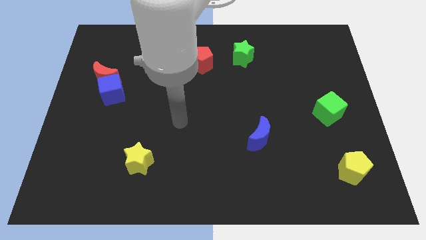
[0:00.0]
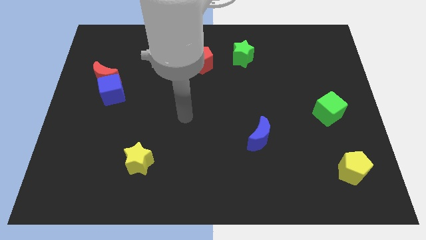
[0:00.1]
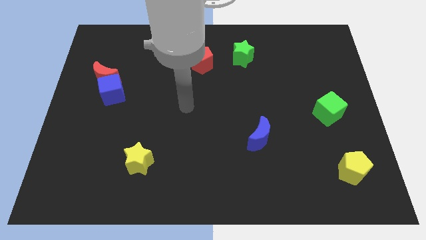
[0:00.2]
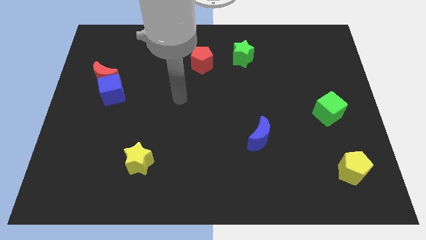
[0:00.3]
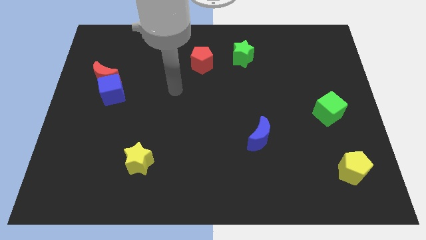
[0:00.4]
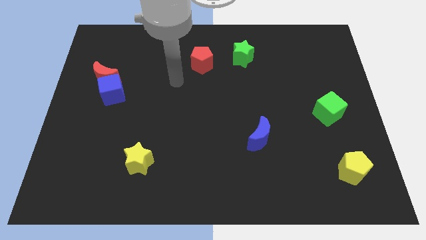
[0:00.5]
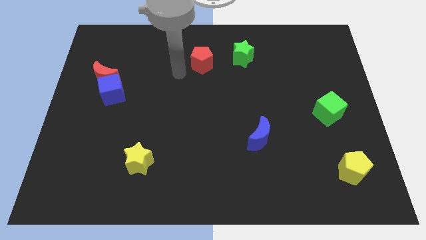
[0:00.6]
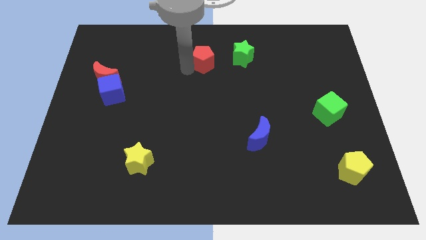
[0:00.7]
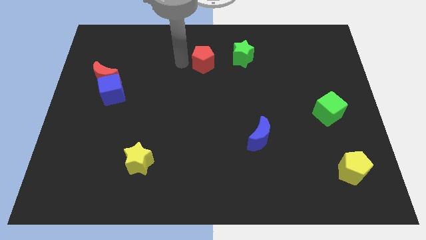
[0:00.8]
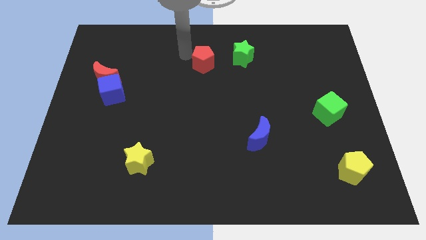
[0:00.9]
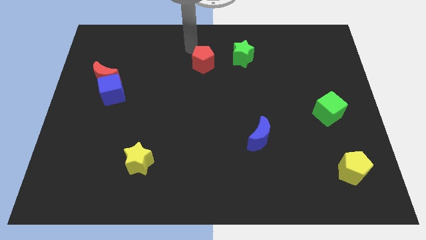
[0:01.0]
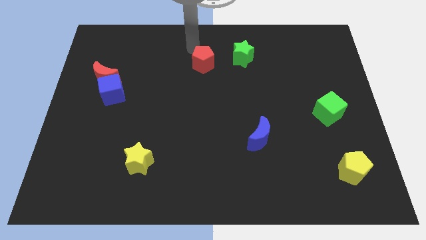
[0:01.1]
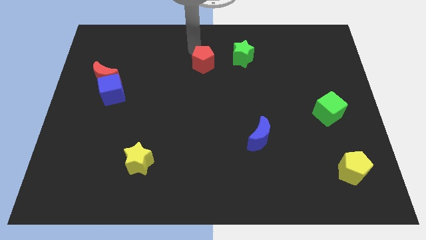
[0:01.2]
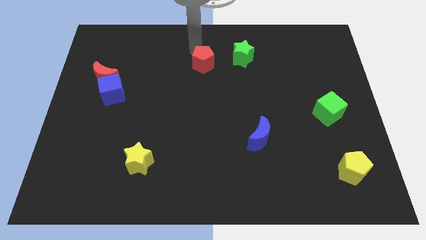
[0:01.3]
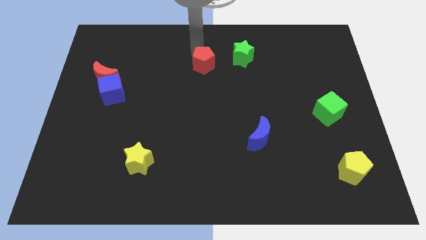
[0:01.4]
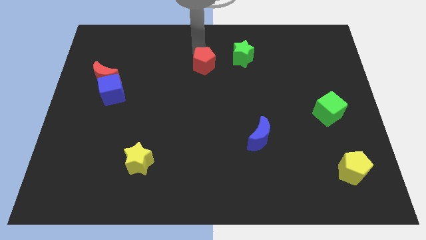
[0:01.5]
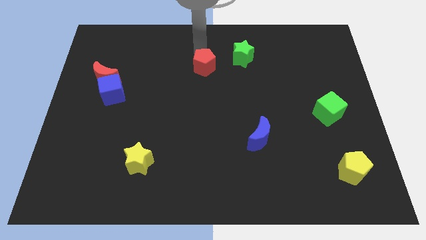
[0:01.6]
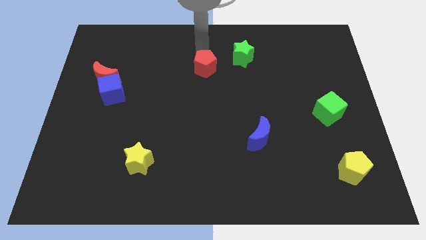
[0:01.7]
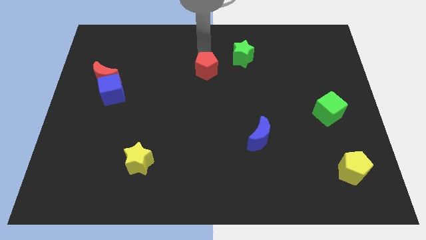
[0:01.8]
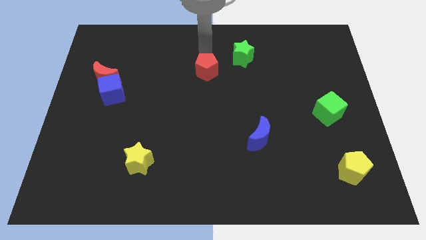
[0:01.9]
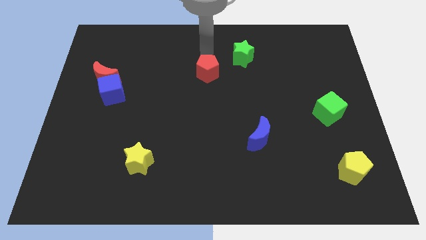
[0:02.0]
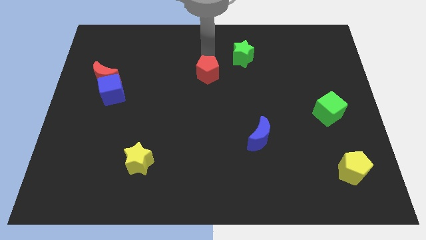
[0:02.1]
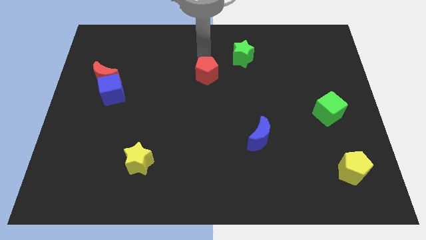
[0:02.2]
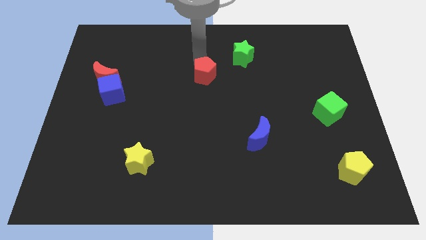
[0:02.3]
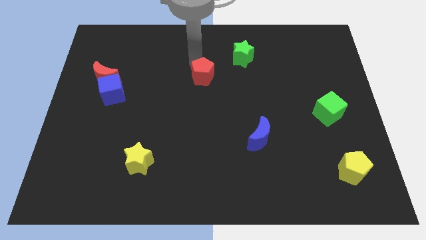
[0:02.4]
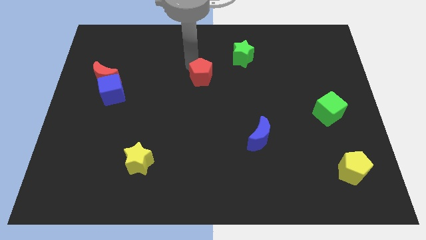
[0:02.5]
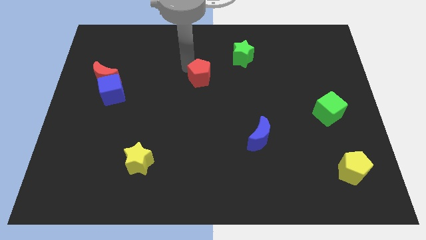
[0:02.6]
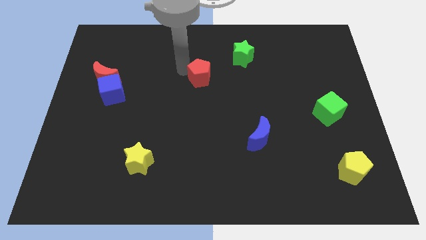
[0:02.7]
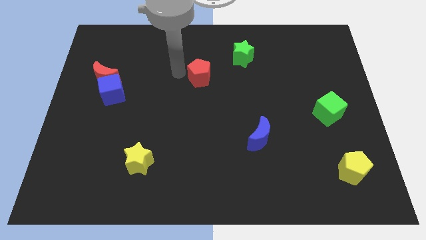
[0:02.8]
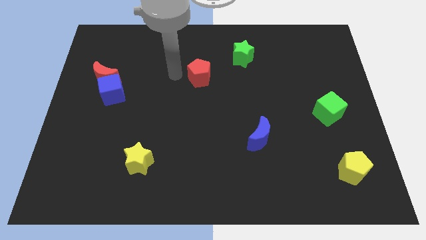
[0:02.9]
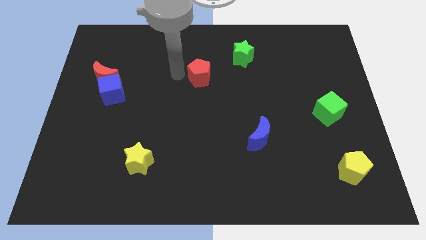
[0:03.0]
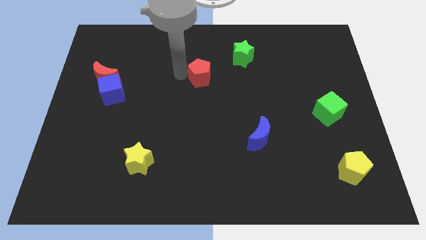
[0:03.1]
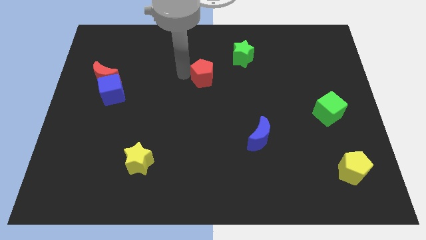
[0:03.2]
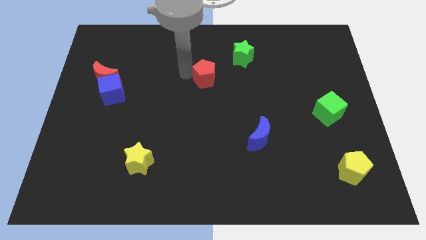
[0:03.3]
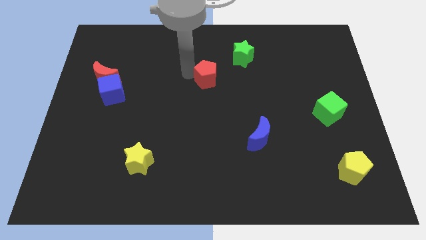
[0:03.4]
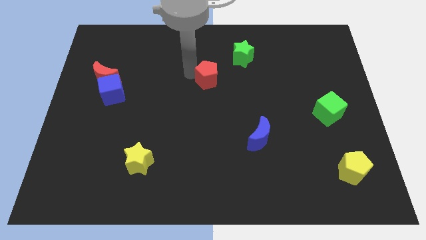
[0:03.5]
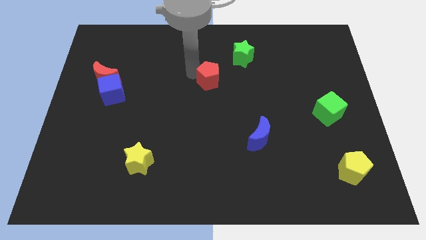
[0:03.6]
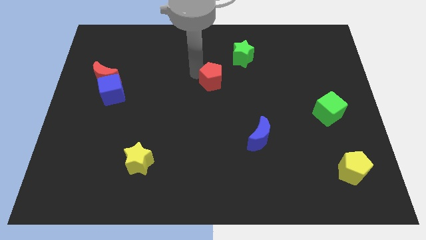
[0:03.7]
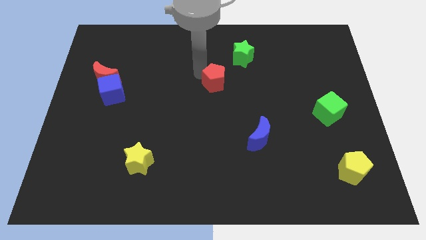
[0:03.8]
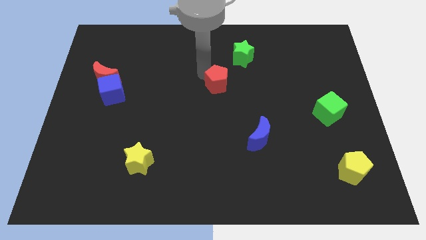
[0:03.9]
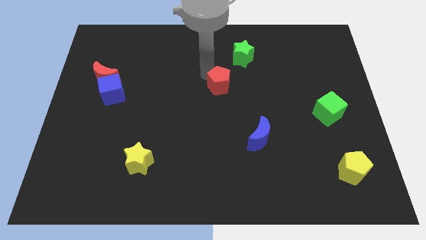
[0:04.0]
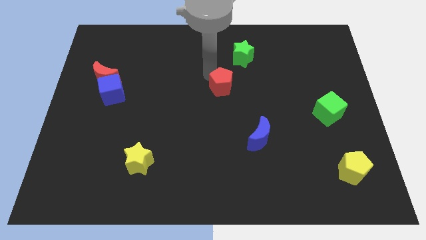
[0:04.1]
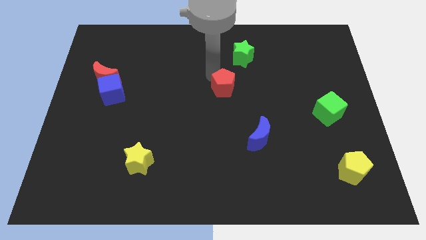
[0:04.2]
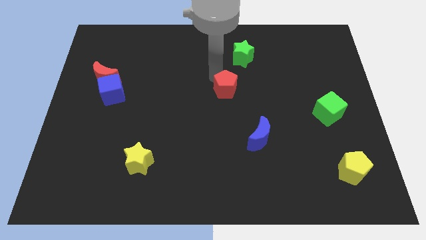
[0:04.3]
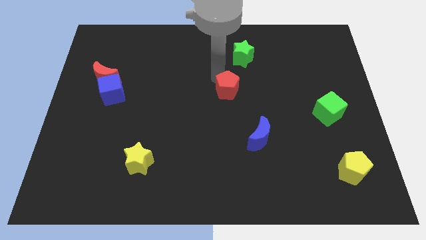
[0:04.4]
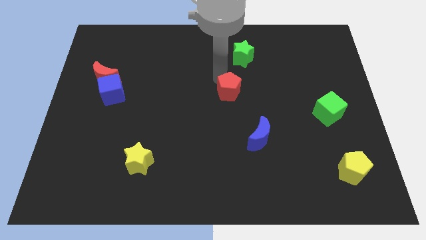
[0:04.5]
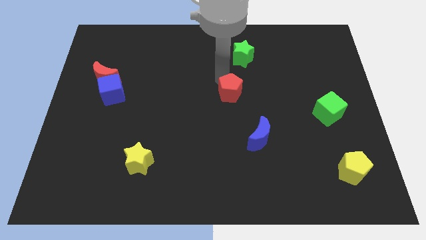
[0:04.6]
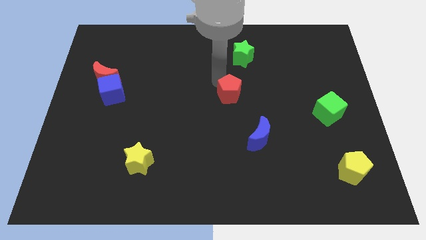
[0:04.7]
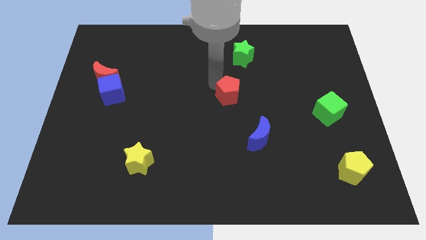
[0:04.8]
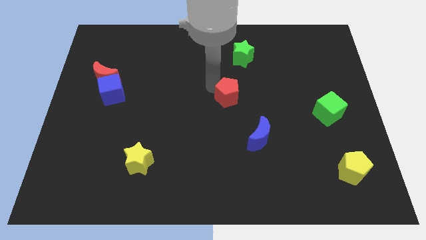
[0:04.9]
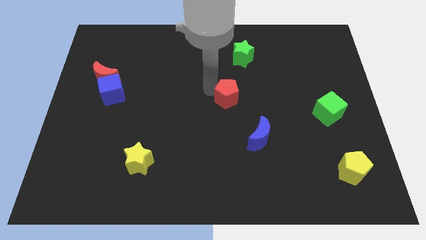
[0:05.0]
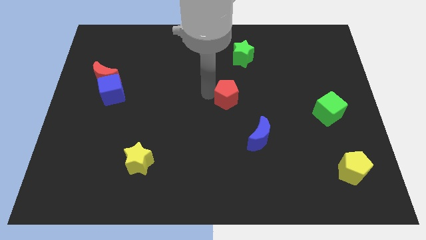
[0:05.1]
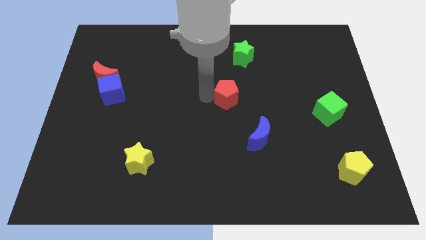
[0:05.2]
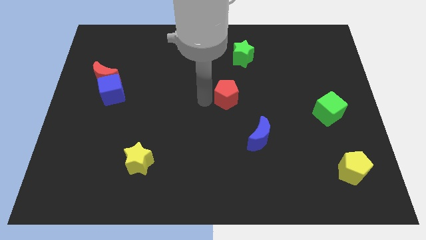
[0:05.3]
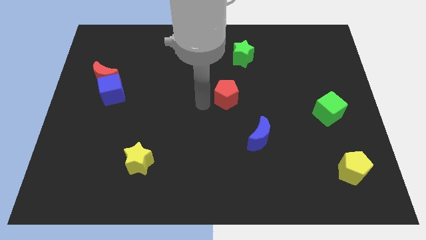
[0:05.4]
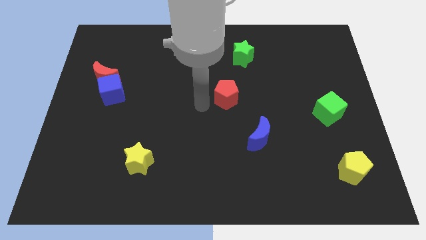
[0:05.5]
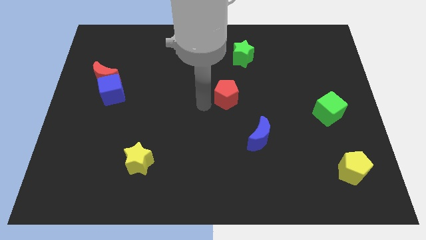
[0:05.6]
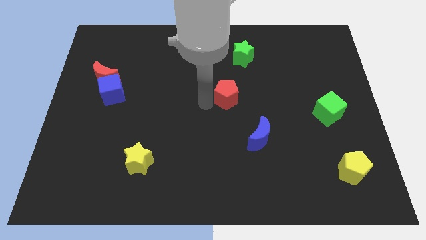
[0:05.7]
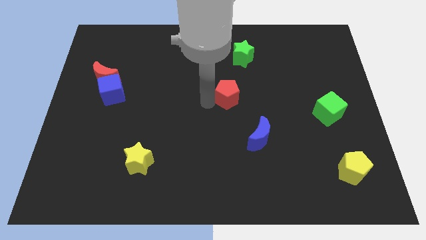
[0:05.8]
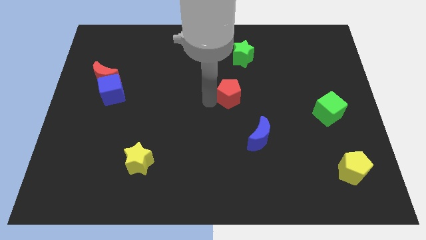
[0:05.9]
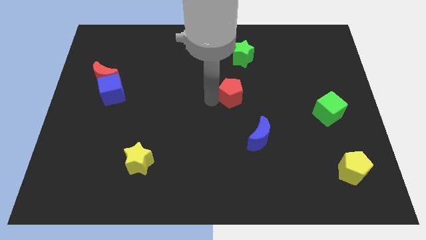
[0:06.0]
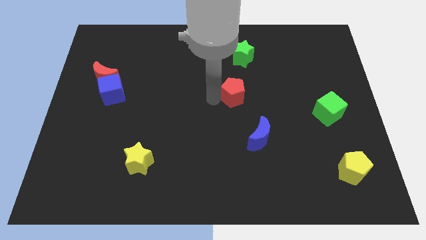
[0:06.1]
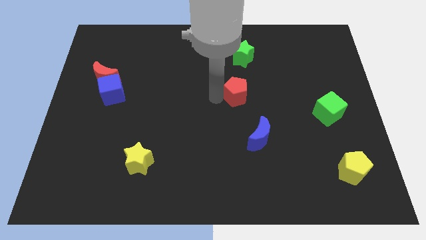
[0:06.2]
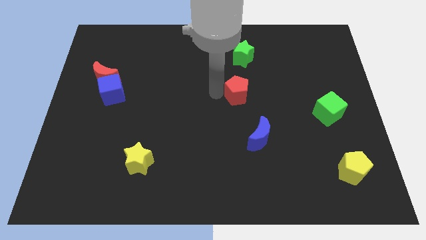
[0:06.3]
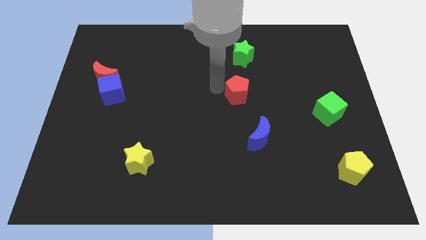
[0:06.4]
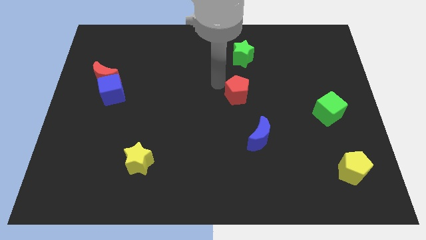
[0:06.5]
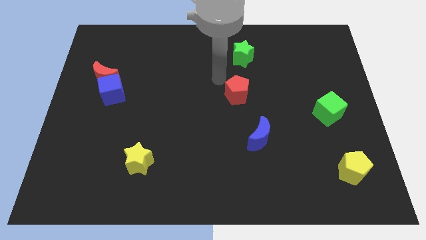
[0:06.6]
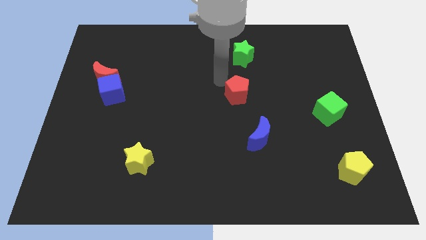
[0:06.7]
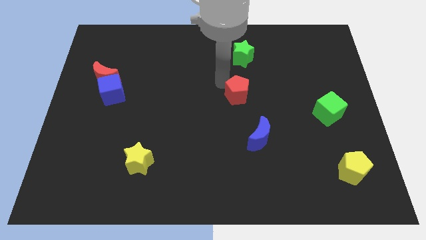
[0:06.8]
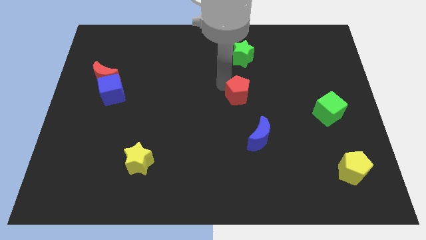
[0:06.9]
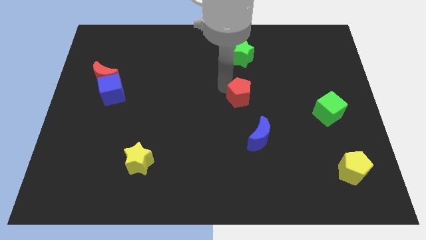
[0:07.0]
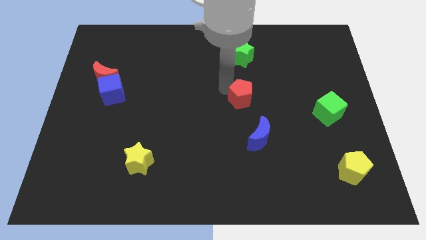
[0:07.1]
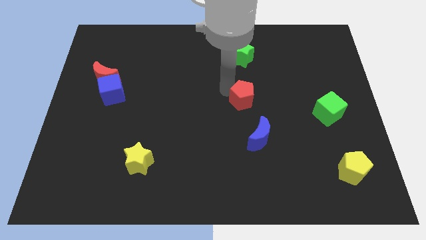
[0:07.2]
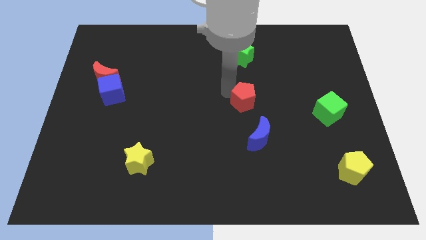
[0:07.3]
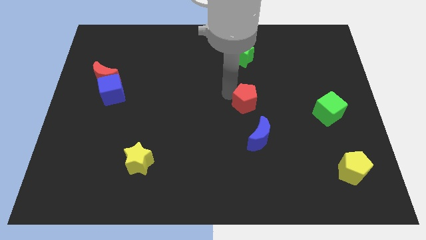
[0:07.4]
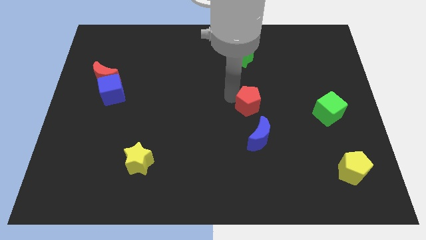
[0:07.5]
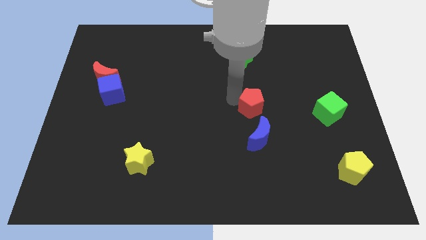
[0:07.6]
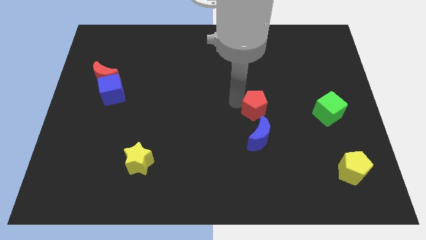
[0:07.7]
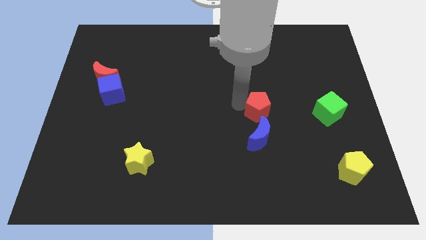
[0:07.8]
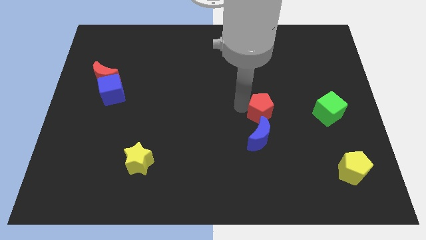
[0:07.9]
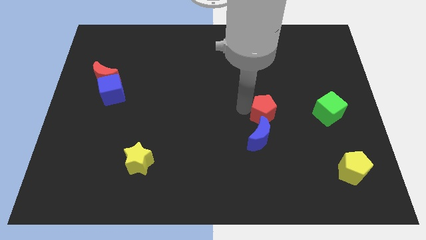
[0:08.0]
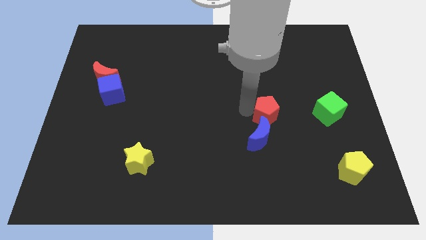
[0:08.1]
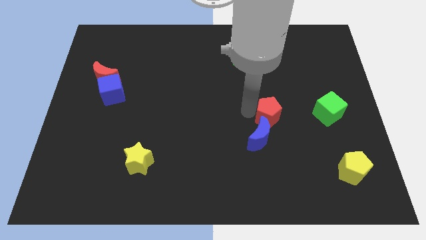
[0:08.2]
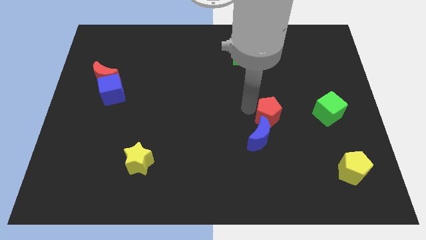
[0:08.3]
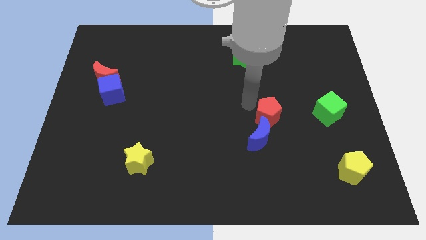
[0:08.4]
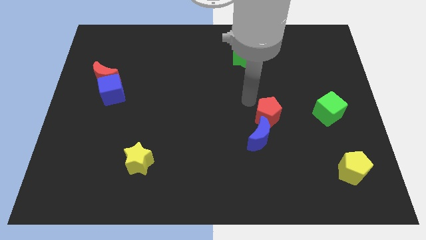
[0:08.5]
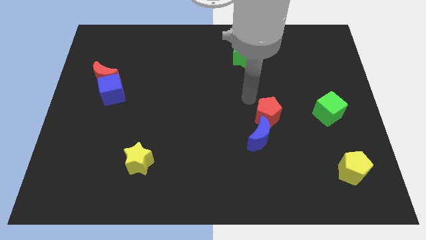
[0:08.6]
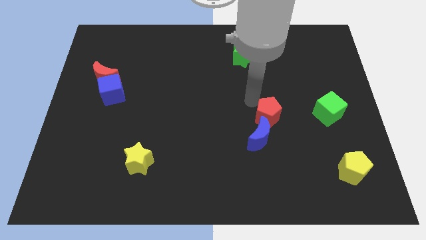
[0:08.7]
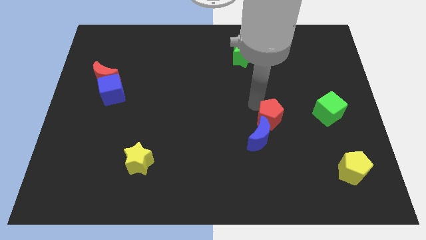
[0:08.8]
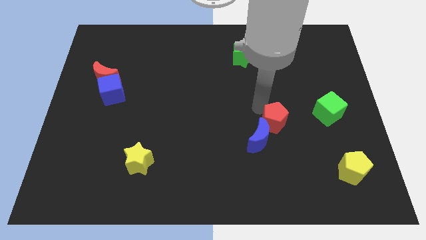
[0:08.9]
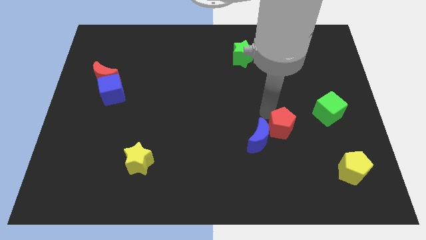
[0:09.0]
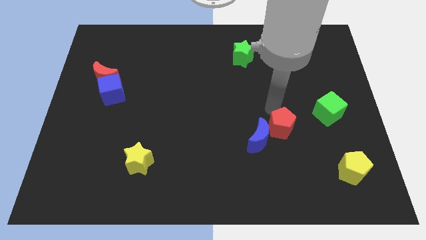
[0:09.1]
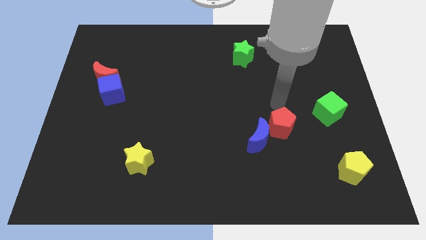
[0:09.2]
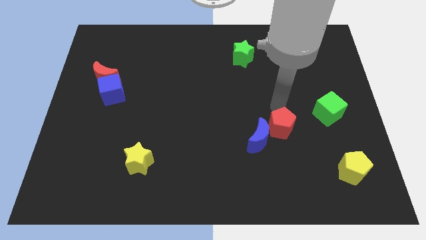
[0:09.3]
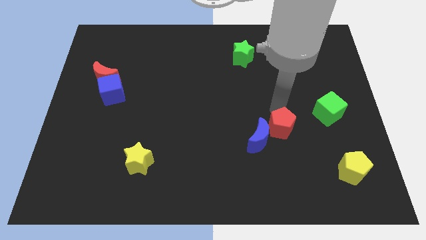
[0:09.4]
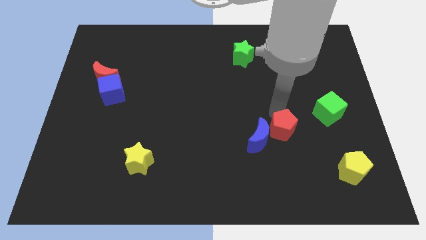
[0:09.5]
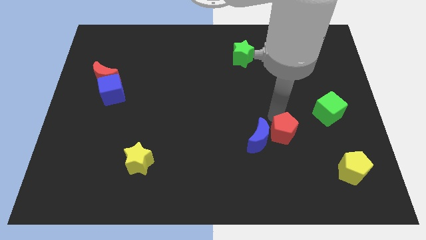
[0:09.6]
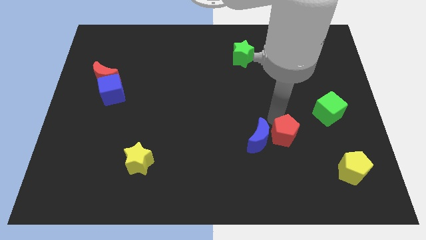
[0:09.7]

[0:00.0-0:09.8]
put the red pentagon diagonally down and to the right of the blue moon
